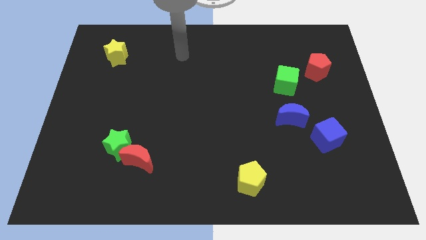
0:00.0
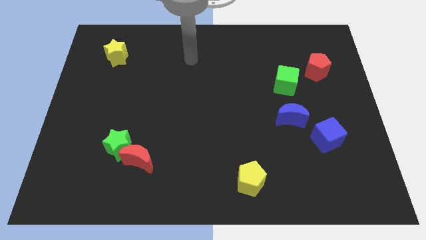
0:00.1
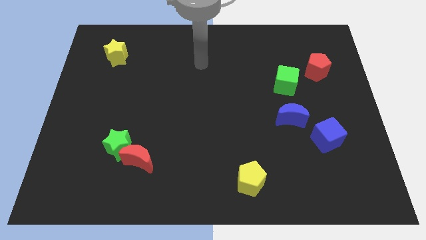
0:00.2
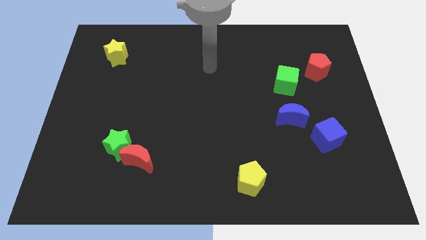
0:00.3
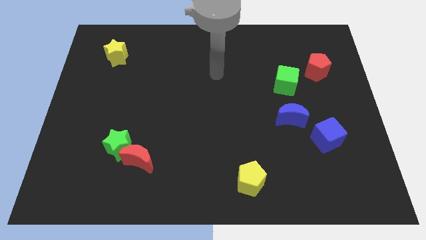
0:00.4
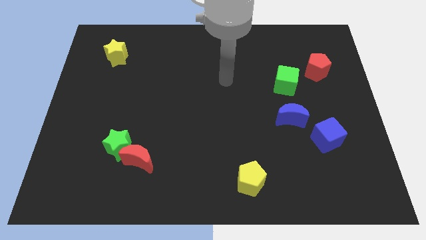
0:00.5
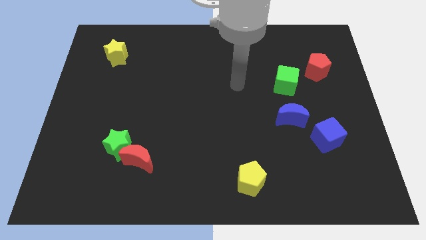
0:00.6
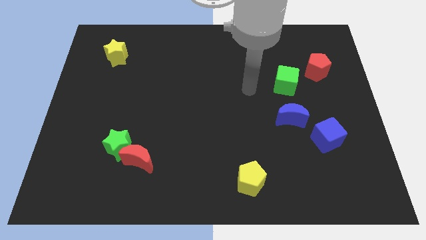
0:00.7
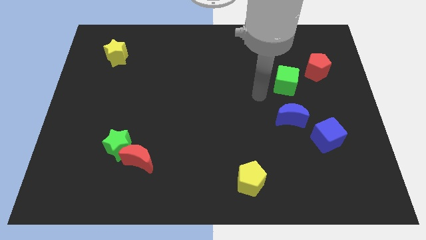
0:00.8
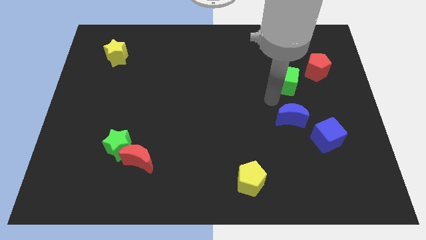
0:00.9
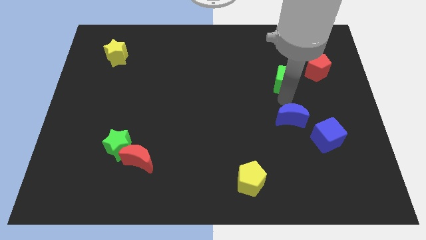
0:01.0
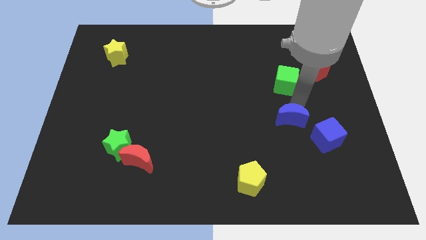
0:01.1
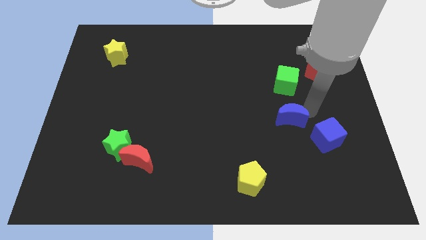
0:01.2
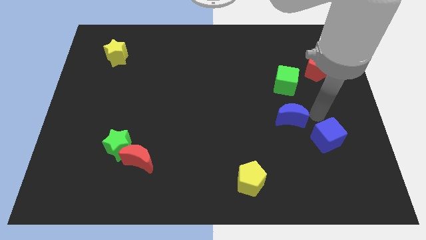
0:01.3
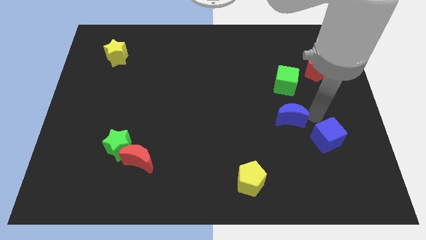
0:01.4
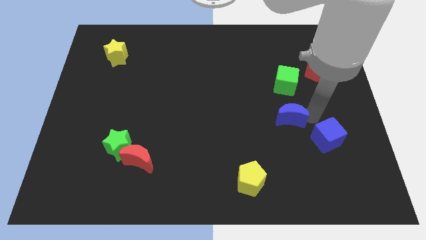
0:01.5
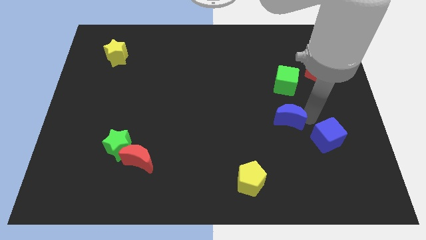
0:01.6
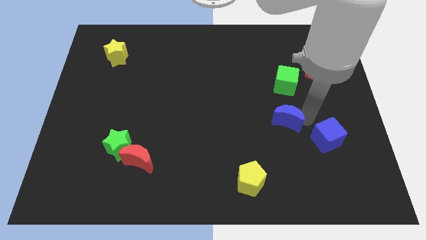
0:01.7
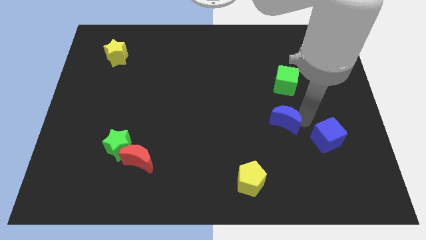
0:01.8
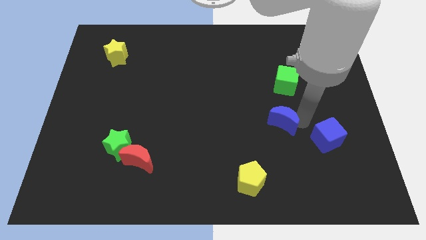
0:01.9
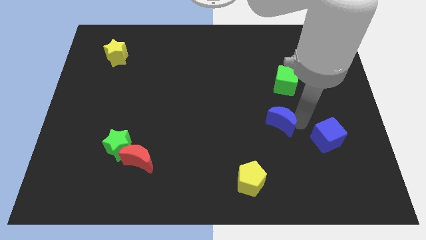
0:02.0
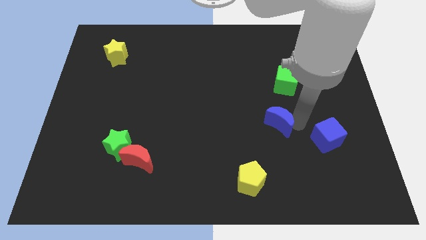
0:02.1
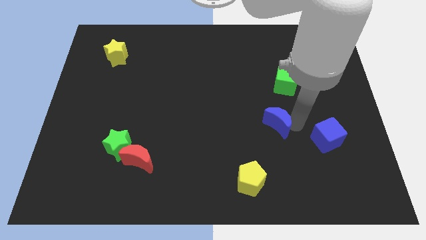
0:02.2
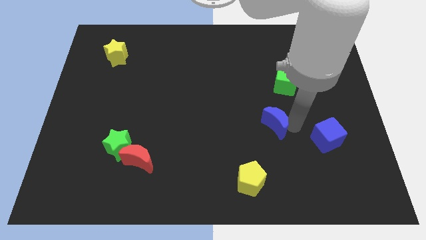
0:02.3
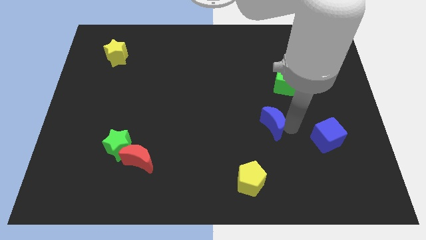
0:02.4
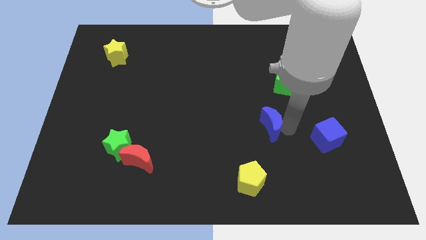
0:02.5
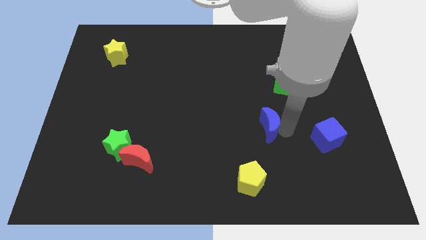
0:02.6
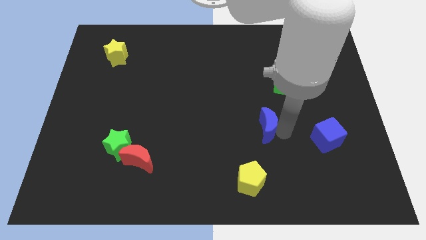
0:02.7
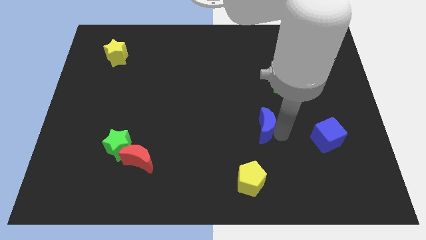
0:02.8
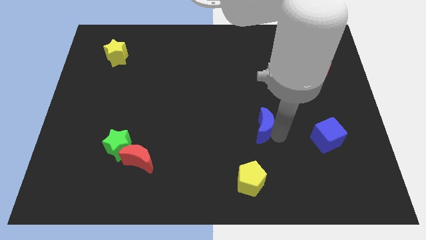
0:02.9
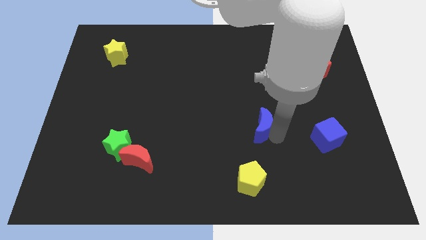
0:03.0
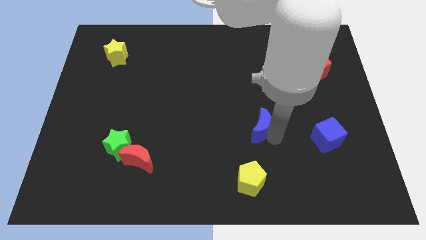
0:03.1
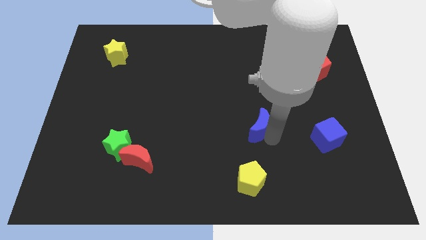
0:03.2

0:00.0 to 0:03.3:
slightly slide the blue moon left

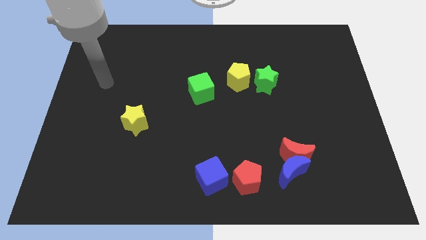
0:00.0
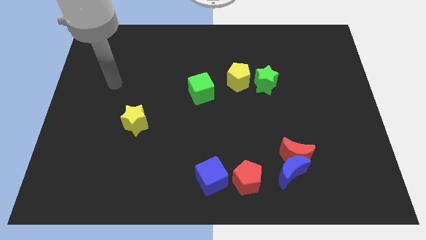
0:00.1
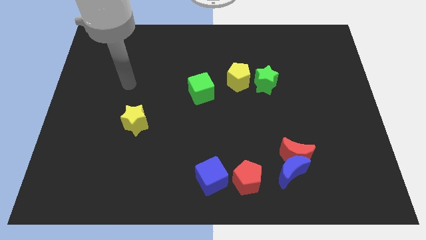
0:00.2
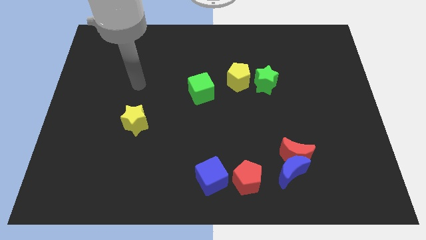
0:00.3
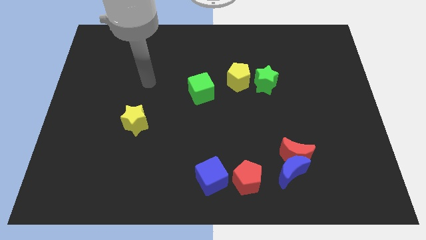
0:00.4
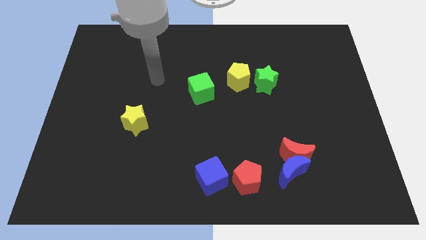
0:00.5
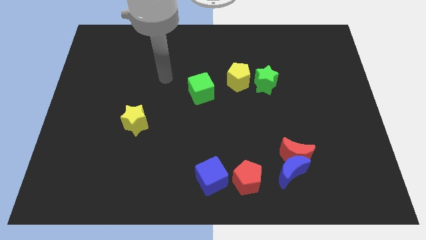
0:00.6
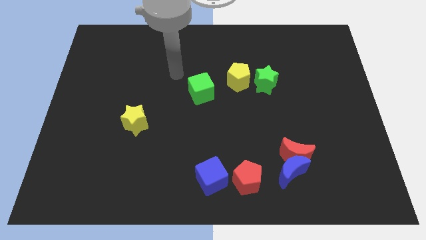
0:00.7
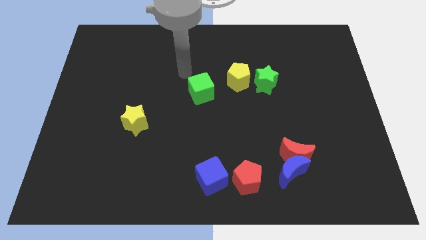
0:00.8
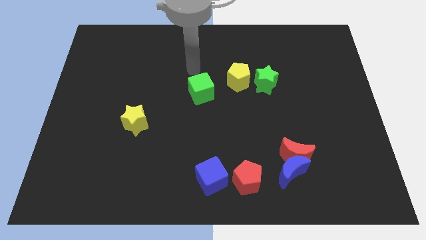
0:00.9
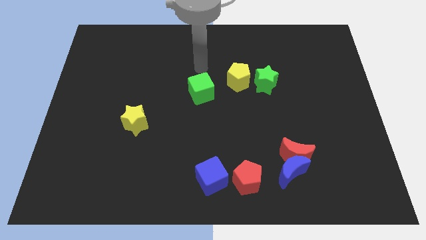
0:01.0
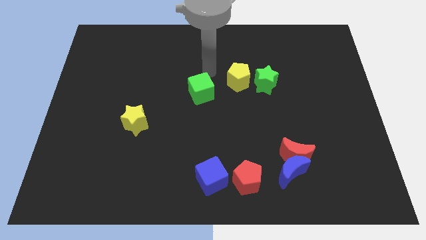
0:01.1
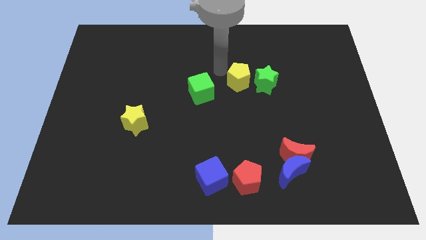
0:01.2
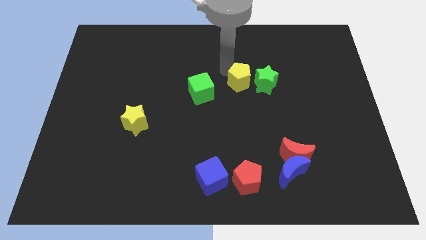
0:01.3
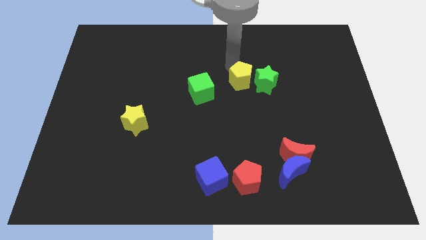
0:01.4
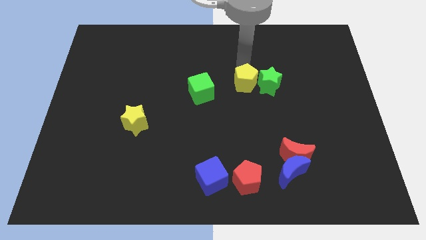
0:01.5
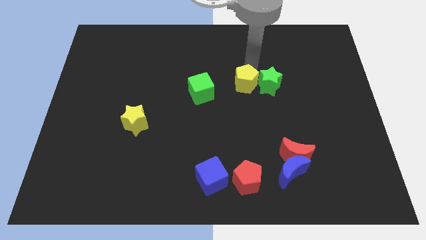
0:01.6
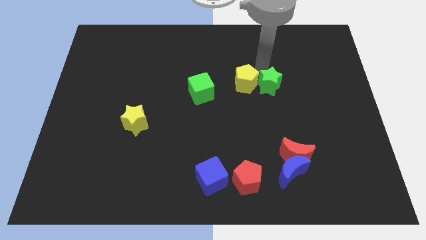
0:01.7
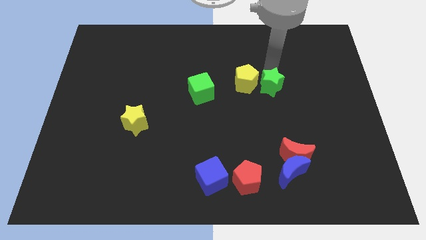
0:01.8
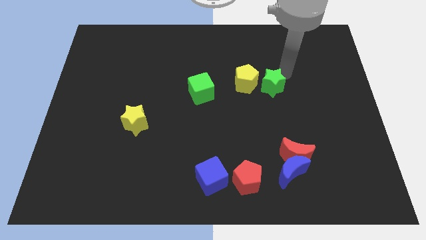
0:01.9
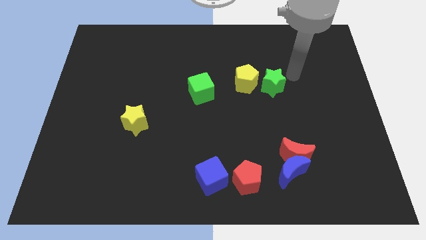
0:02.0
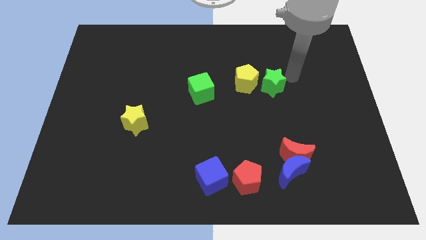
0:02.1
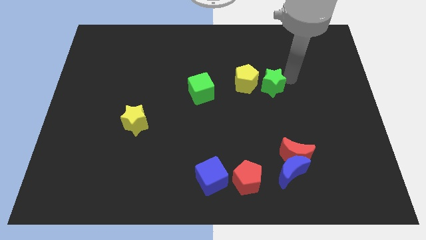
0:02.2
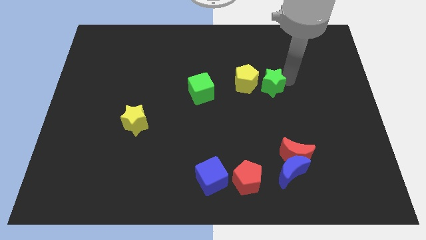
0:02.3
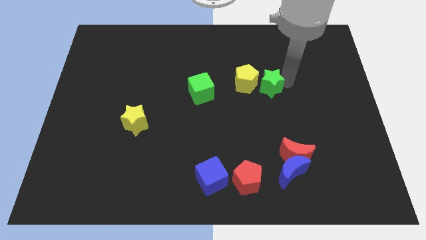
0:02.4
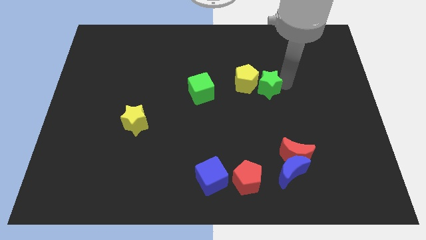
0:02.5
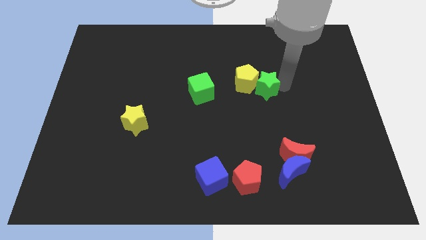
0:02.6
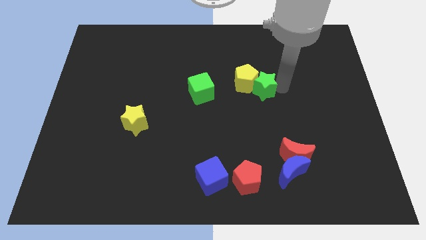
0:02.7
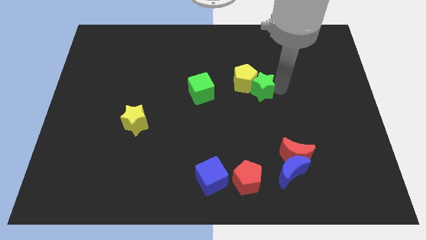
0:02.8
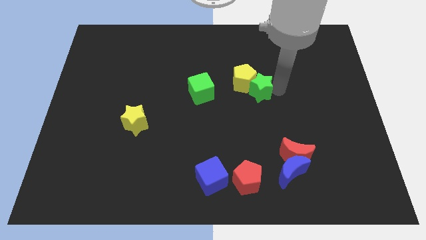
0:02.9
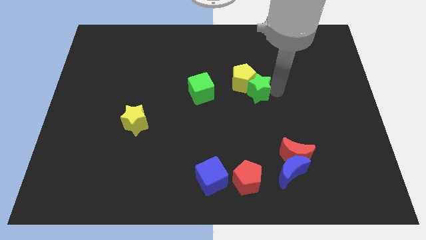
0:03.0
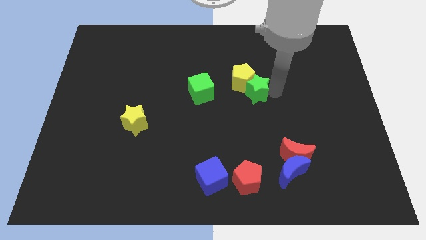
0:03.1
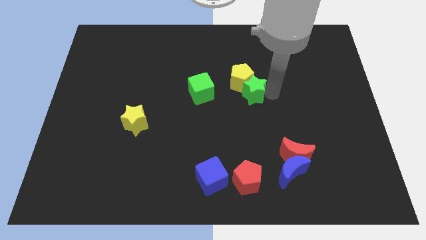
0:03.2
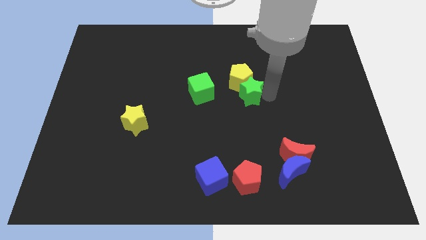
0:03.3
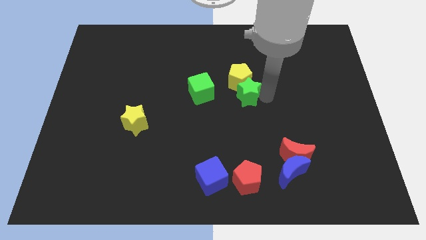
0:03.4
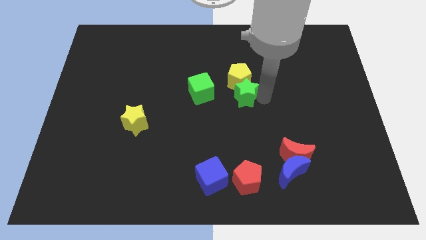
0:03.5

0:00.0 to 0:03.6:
slightly move the green star down and to the left diagonally

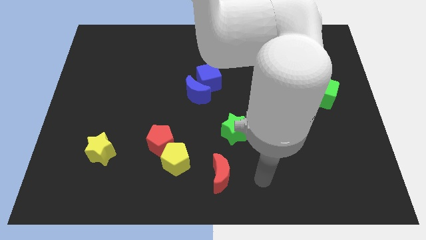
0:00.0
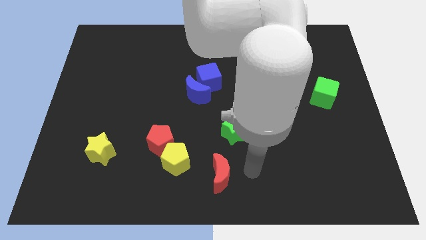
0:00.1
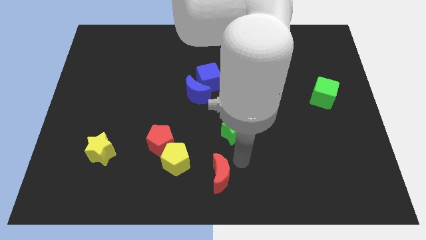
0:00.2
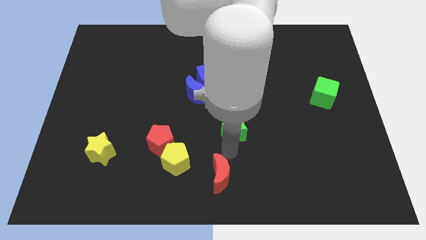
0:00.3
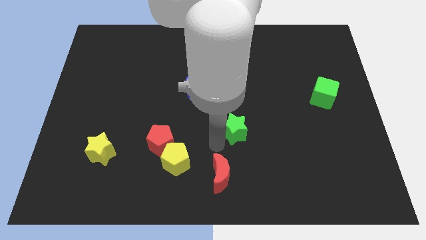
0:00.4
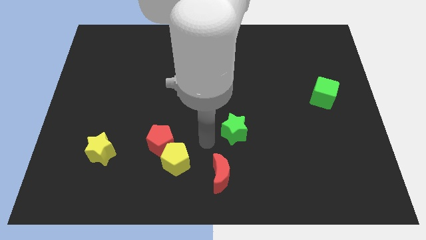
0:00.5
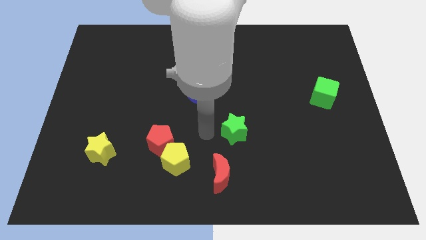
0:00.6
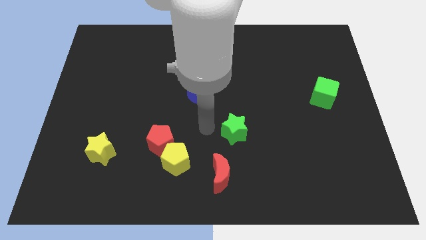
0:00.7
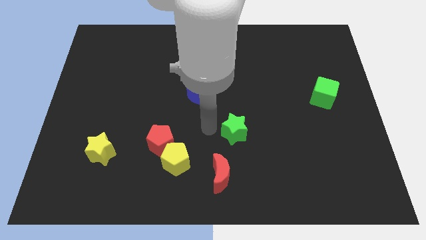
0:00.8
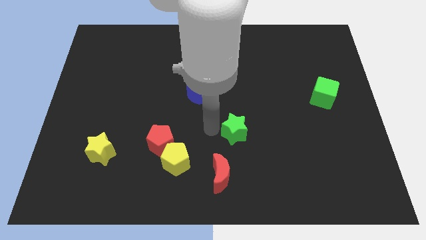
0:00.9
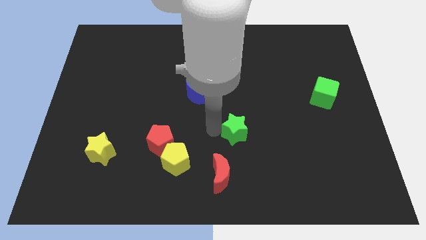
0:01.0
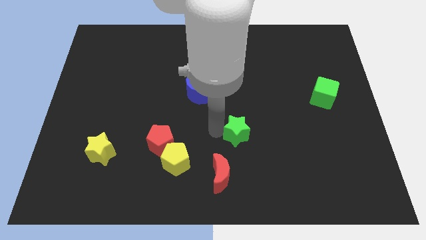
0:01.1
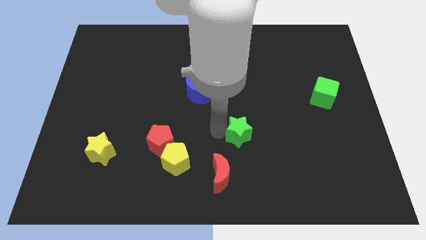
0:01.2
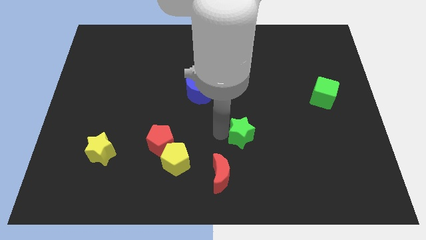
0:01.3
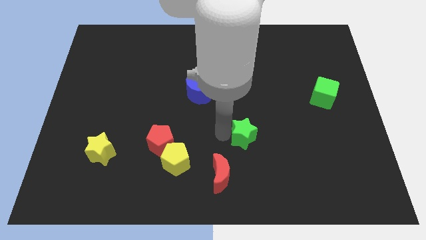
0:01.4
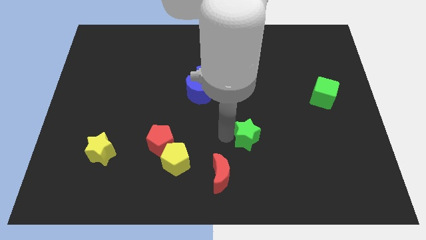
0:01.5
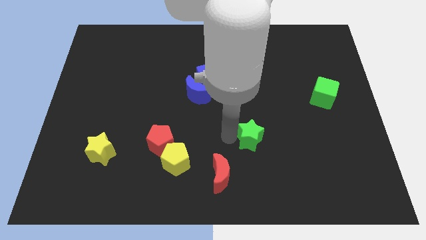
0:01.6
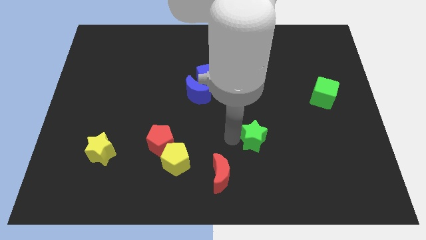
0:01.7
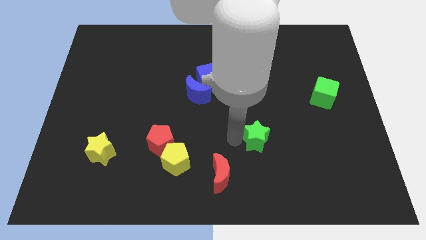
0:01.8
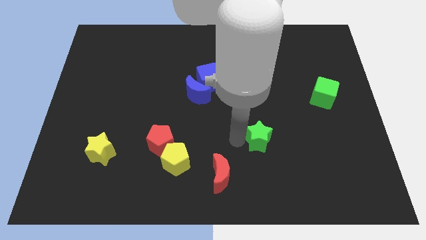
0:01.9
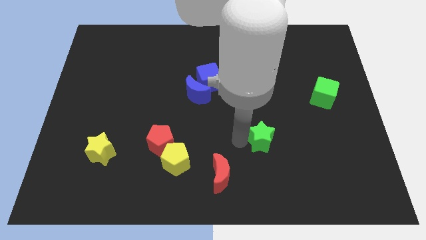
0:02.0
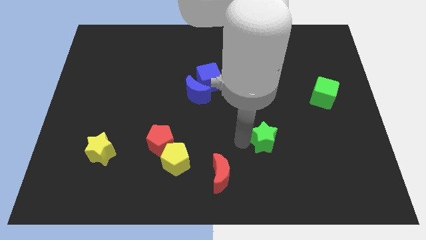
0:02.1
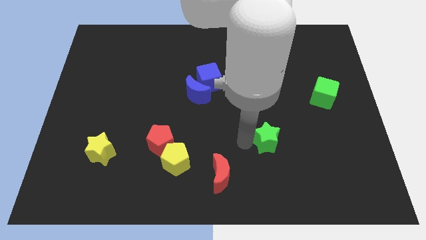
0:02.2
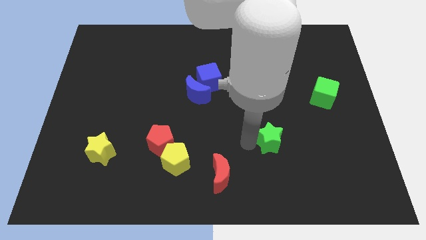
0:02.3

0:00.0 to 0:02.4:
move the green star somewhat to the right
